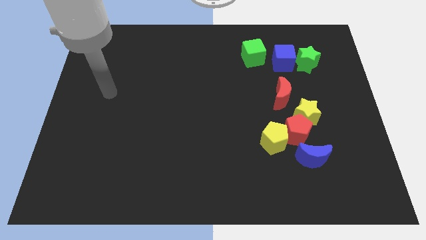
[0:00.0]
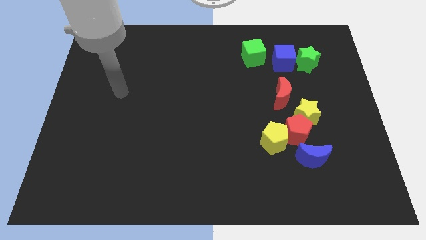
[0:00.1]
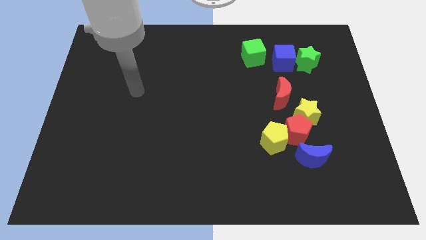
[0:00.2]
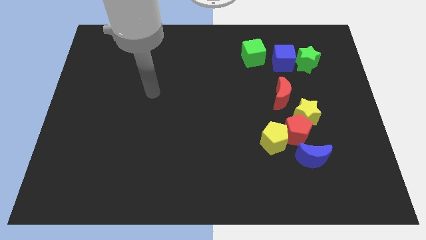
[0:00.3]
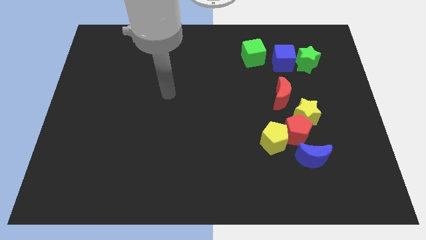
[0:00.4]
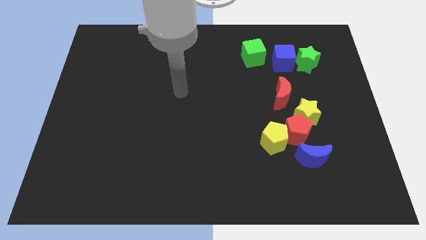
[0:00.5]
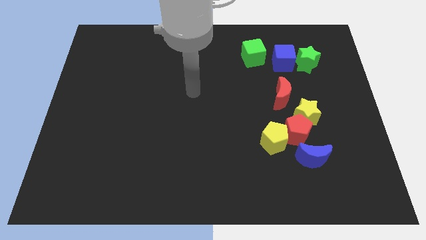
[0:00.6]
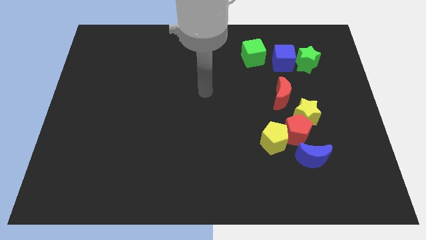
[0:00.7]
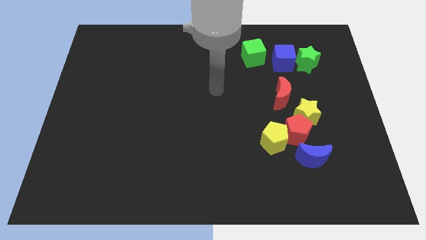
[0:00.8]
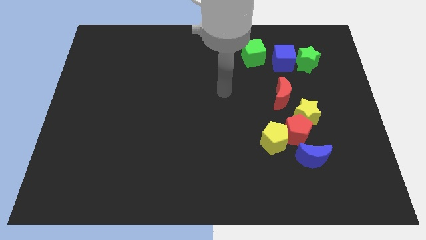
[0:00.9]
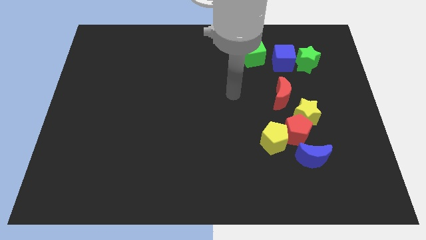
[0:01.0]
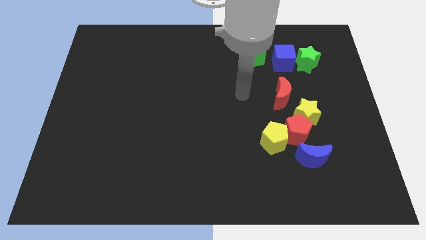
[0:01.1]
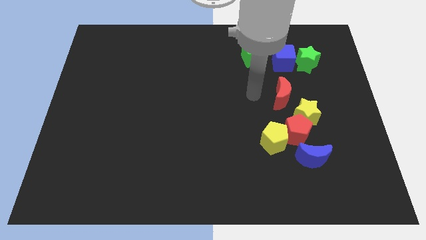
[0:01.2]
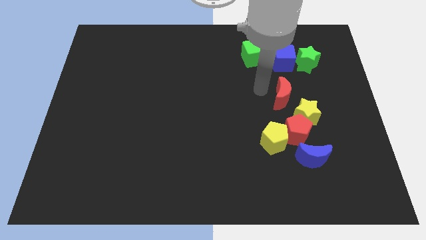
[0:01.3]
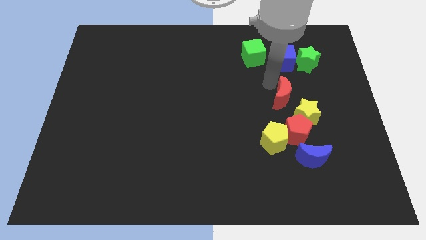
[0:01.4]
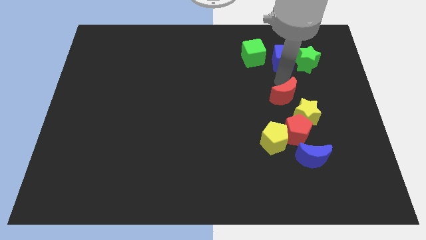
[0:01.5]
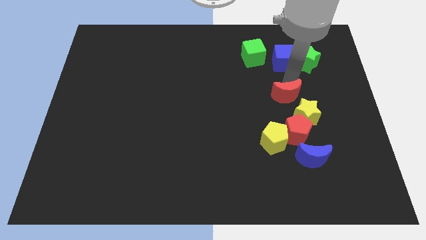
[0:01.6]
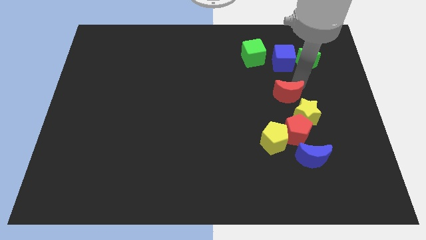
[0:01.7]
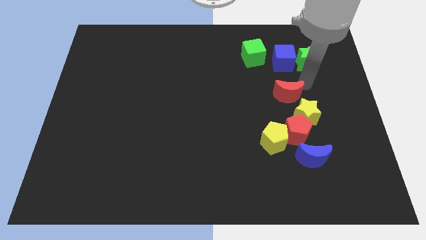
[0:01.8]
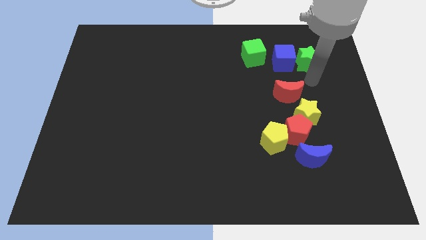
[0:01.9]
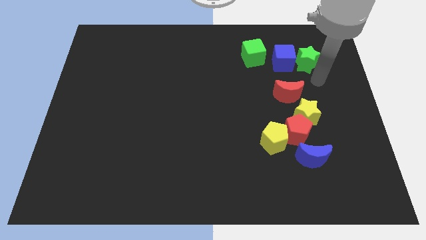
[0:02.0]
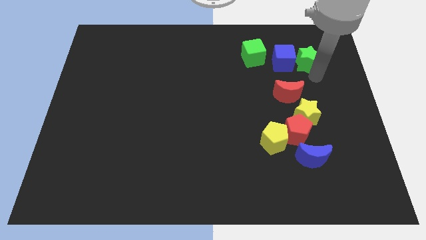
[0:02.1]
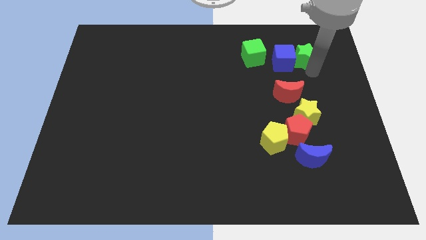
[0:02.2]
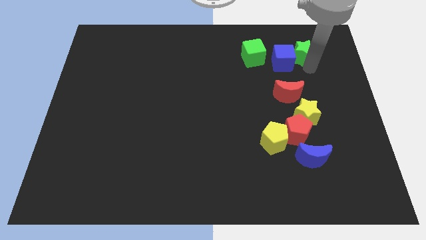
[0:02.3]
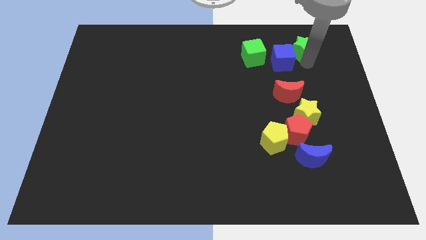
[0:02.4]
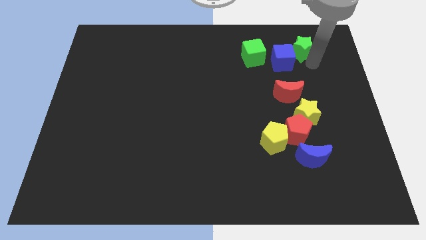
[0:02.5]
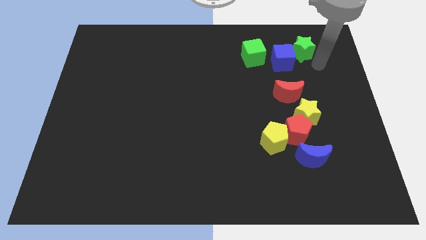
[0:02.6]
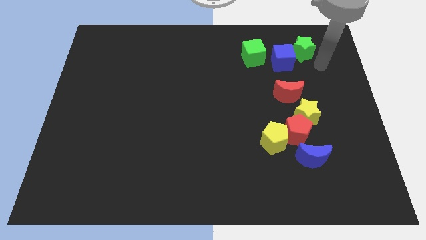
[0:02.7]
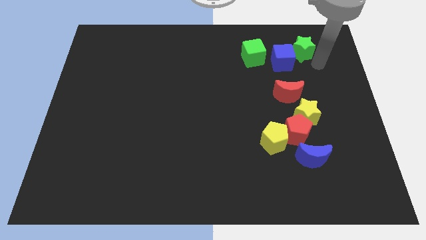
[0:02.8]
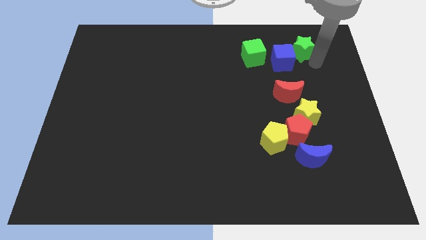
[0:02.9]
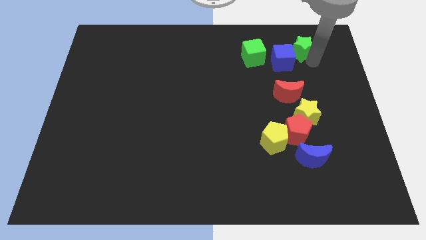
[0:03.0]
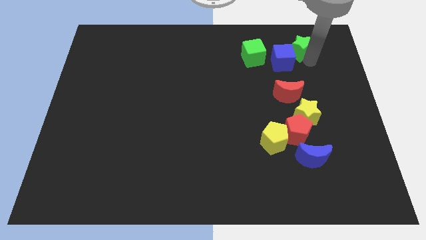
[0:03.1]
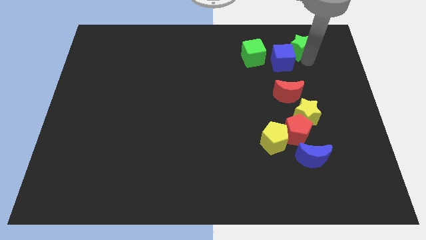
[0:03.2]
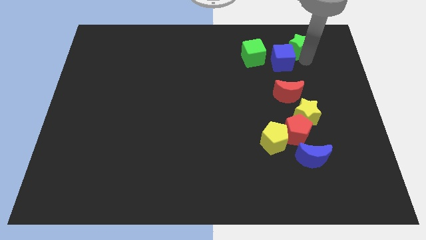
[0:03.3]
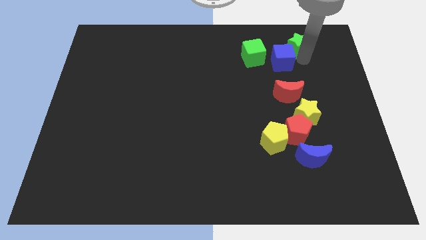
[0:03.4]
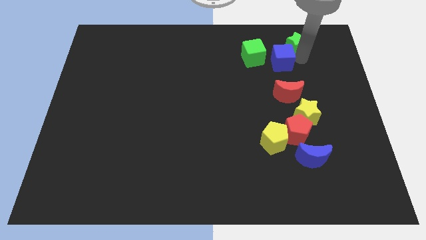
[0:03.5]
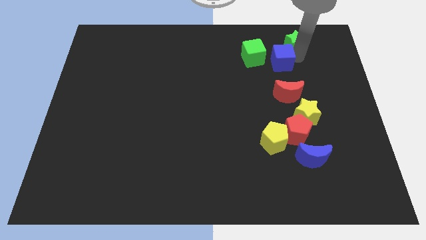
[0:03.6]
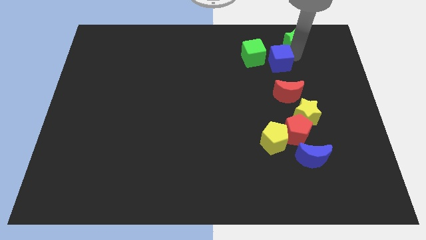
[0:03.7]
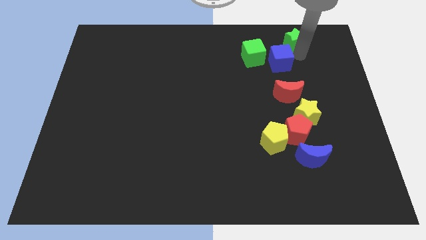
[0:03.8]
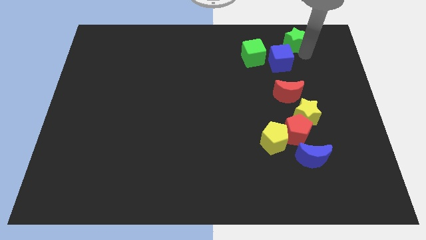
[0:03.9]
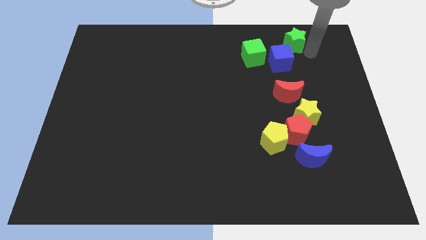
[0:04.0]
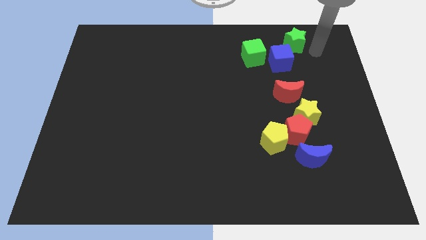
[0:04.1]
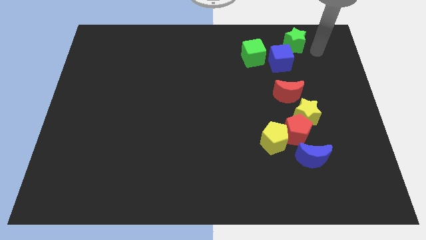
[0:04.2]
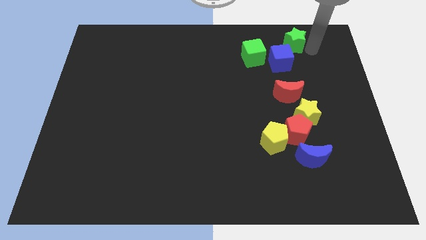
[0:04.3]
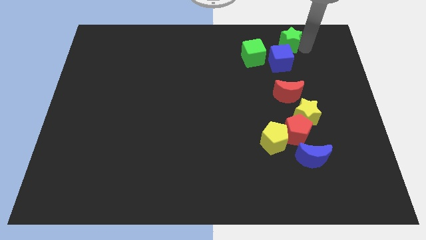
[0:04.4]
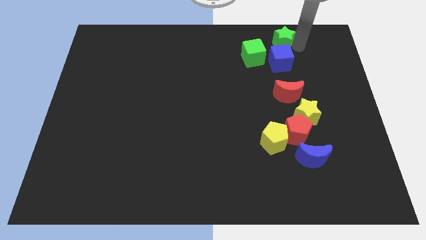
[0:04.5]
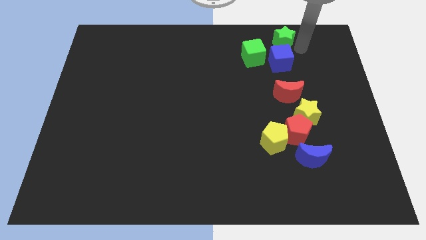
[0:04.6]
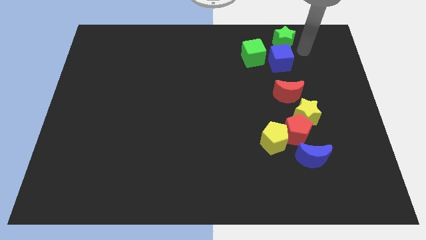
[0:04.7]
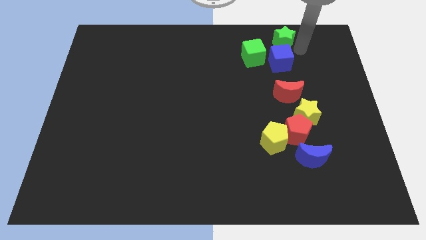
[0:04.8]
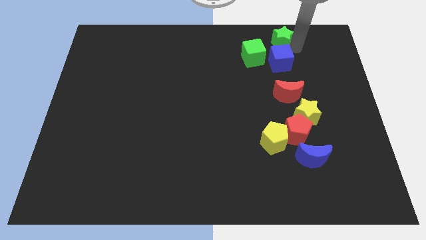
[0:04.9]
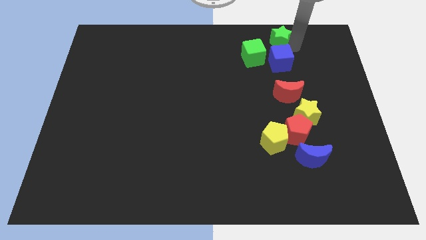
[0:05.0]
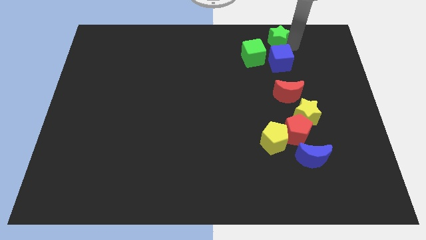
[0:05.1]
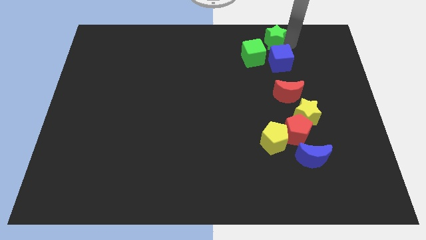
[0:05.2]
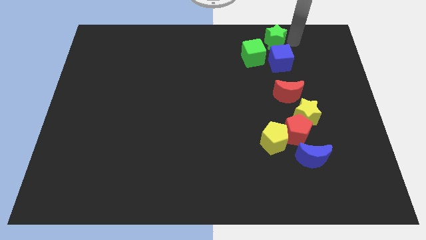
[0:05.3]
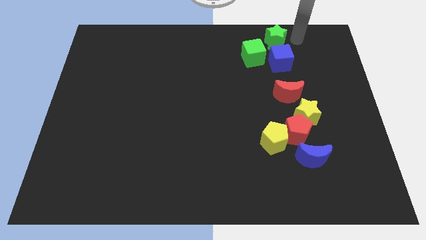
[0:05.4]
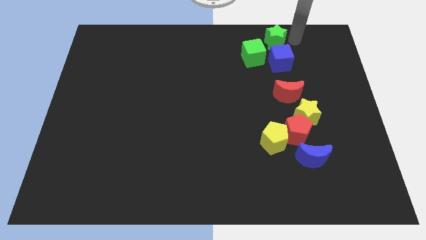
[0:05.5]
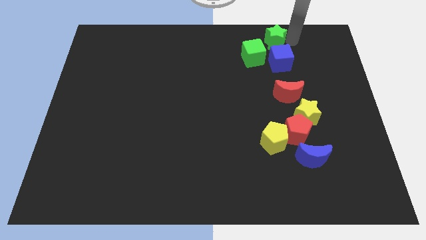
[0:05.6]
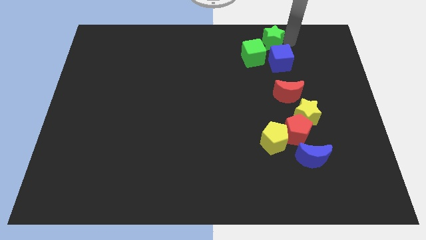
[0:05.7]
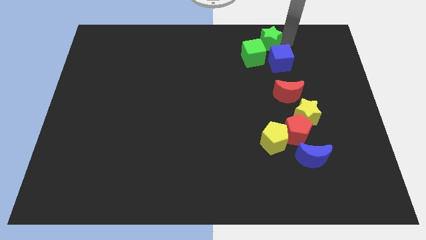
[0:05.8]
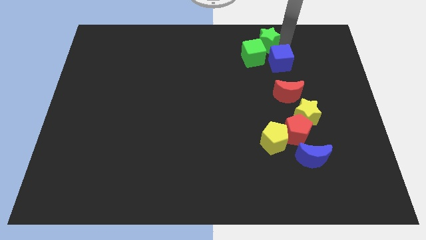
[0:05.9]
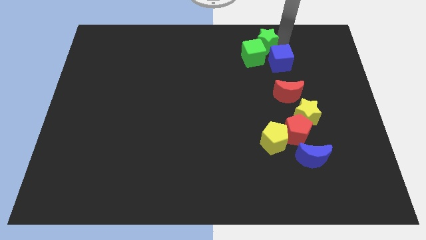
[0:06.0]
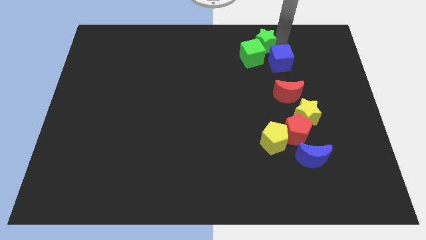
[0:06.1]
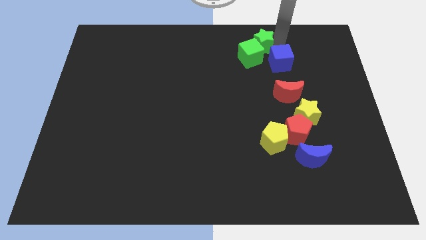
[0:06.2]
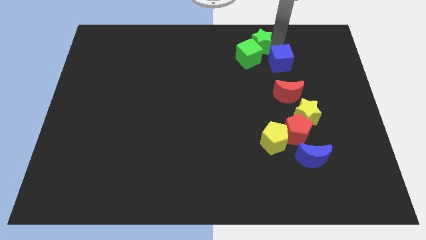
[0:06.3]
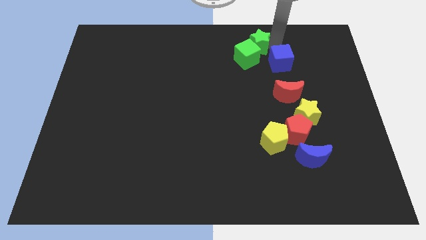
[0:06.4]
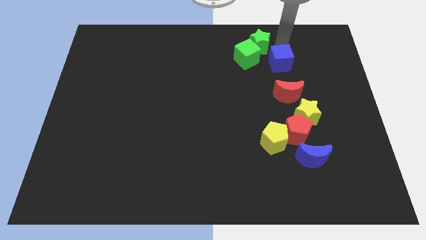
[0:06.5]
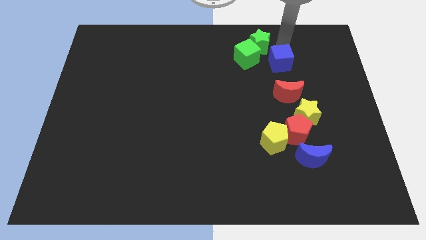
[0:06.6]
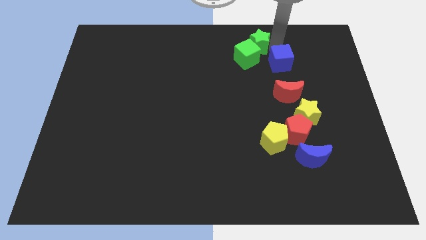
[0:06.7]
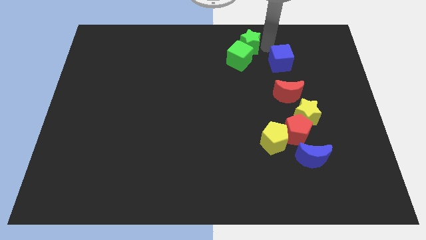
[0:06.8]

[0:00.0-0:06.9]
push the green star to the top side
